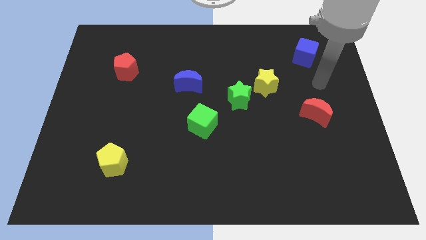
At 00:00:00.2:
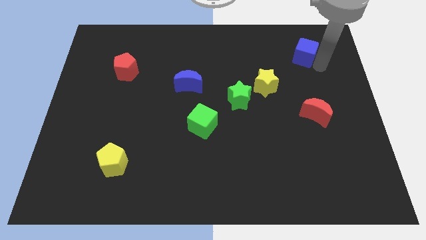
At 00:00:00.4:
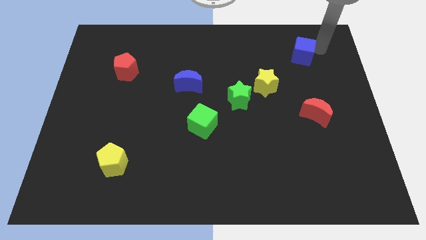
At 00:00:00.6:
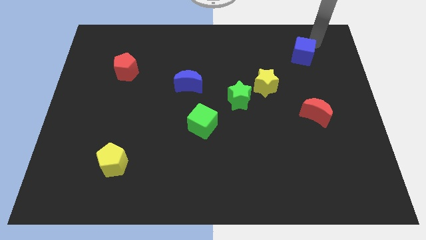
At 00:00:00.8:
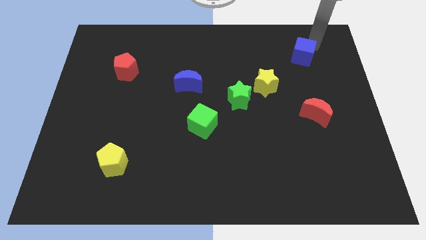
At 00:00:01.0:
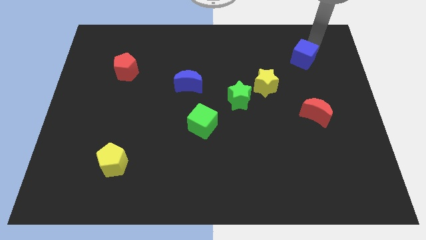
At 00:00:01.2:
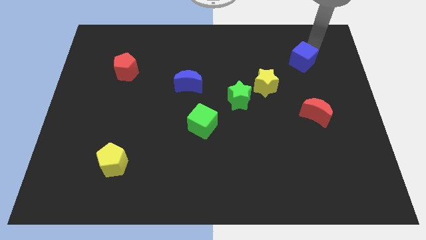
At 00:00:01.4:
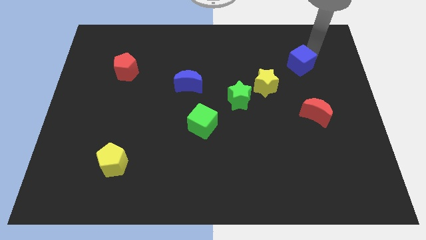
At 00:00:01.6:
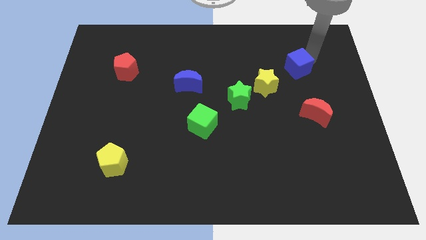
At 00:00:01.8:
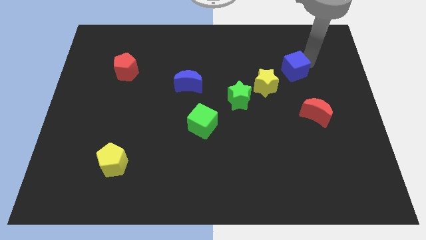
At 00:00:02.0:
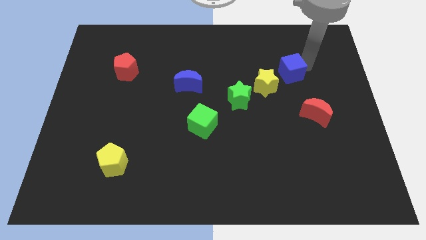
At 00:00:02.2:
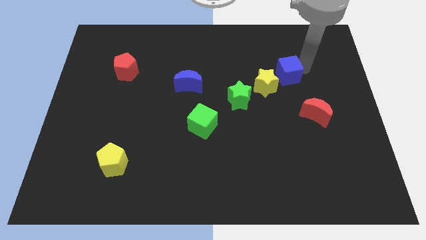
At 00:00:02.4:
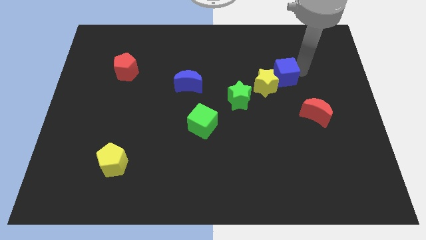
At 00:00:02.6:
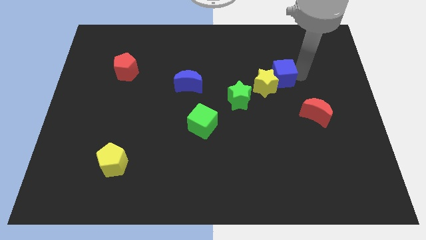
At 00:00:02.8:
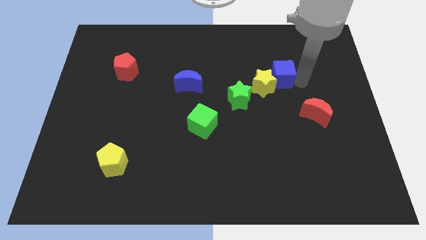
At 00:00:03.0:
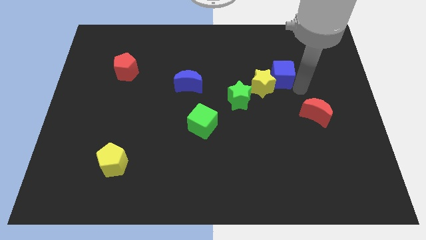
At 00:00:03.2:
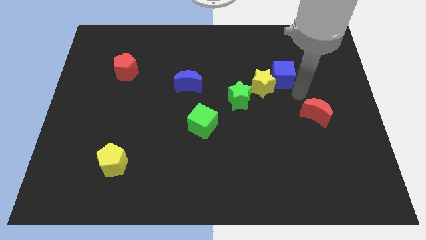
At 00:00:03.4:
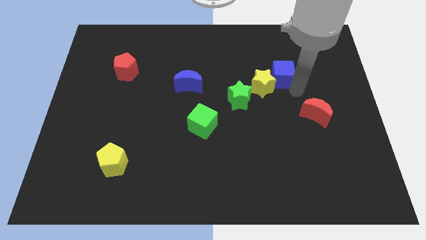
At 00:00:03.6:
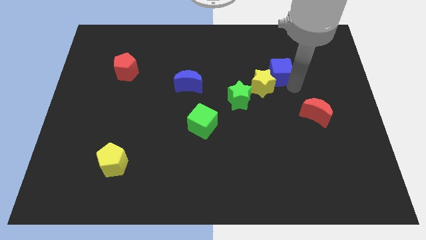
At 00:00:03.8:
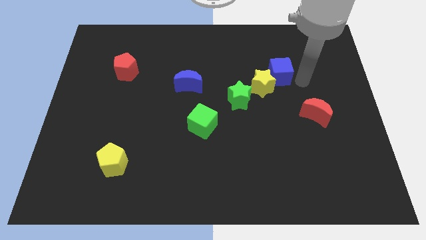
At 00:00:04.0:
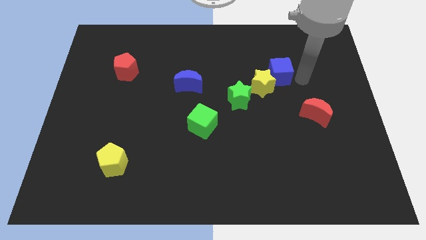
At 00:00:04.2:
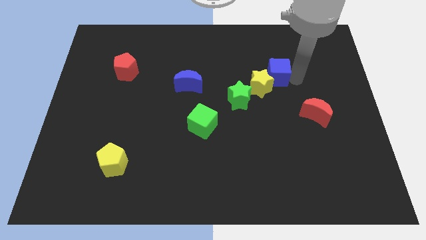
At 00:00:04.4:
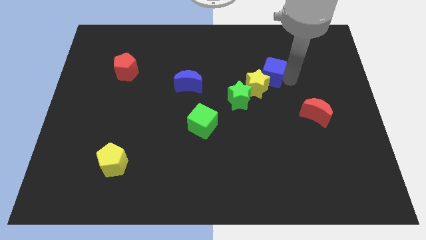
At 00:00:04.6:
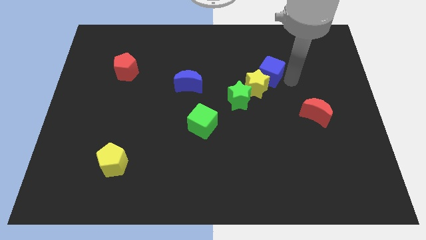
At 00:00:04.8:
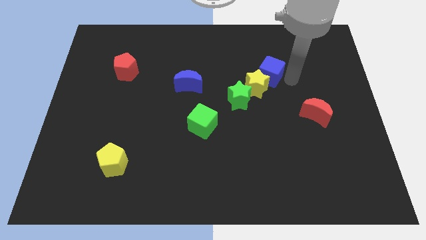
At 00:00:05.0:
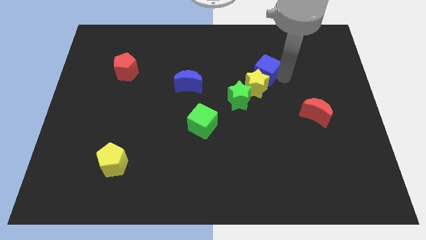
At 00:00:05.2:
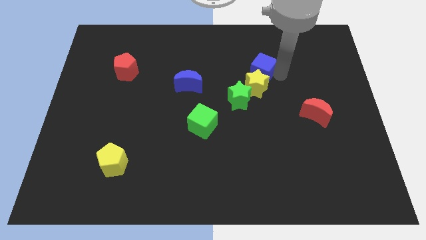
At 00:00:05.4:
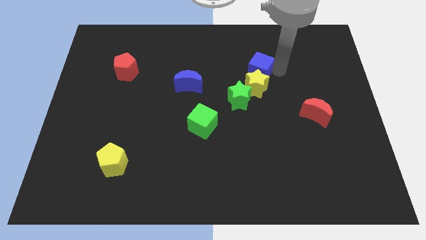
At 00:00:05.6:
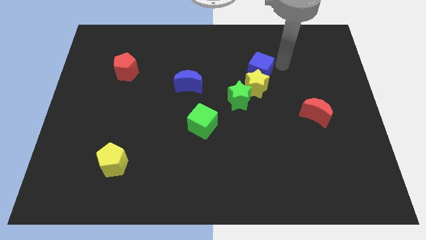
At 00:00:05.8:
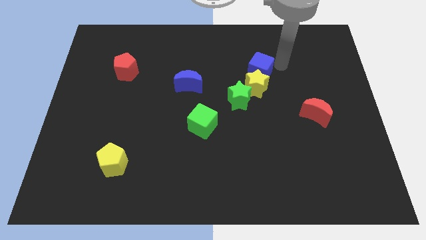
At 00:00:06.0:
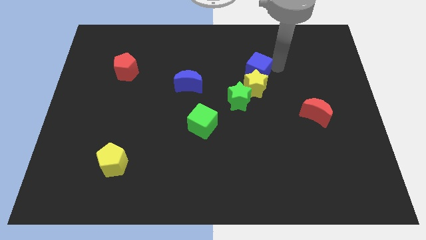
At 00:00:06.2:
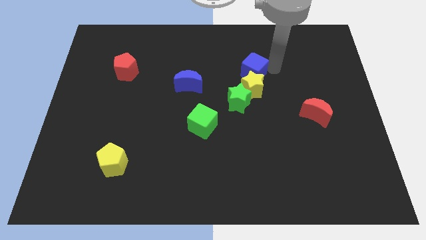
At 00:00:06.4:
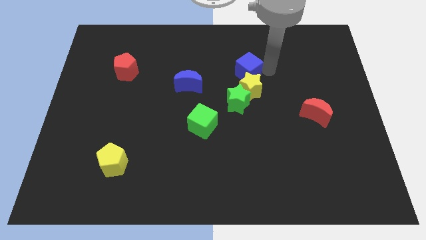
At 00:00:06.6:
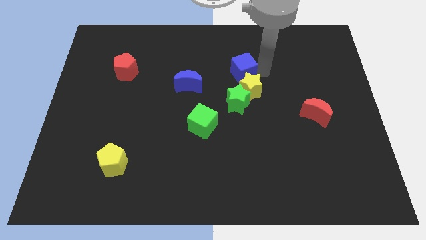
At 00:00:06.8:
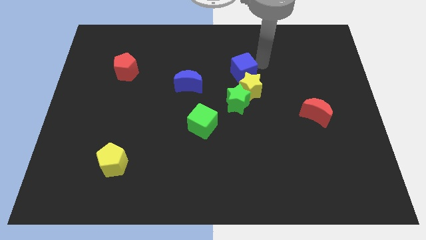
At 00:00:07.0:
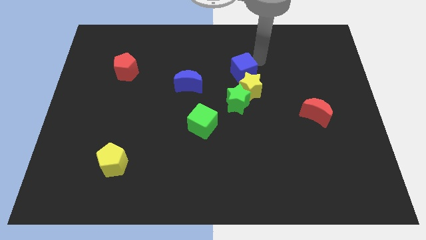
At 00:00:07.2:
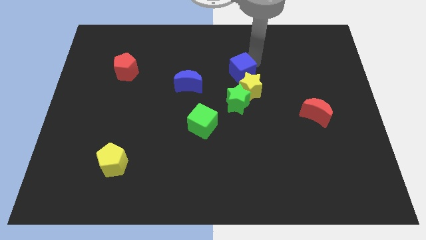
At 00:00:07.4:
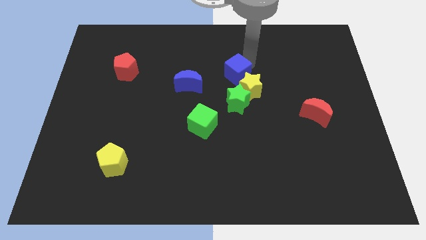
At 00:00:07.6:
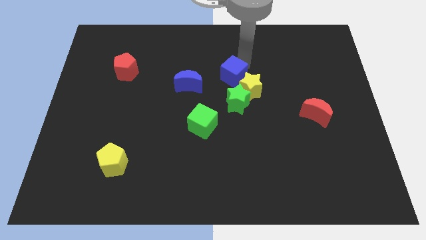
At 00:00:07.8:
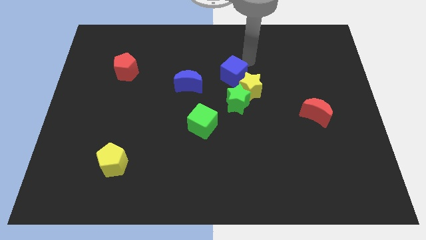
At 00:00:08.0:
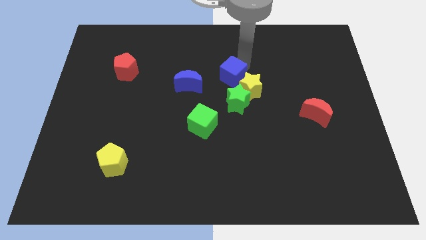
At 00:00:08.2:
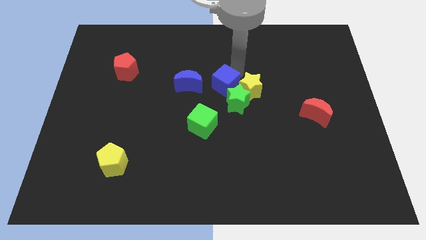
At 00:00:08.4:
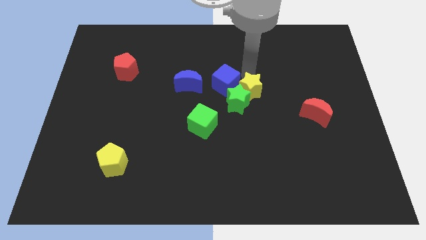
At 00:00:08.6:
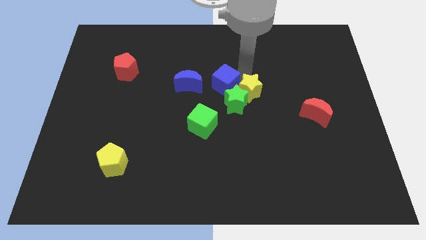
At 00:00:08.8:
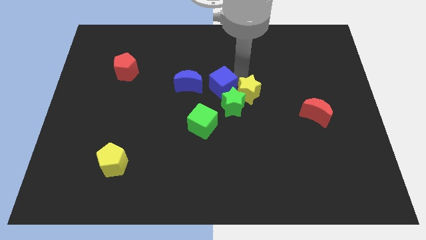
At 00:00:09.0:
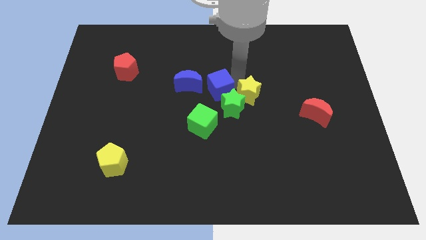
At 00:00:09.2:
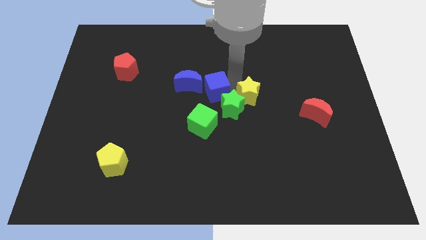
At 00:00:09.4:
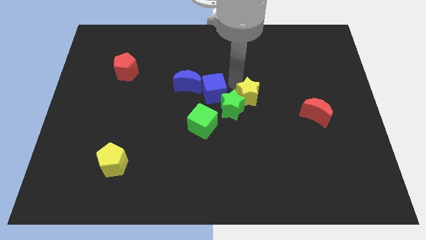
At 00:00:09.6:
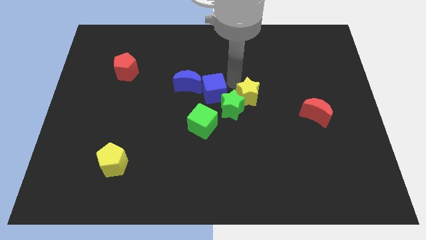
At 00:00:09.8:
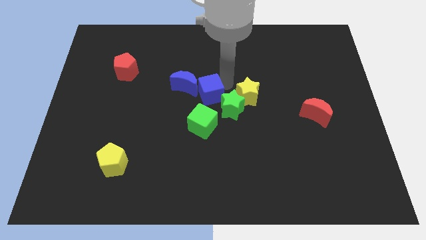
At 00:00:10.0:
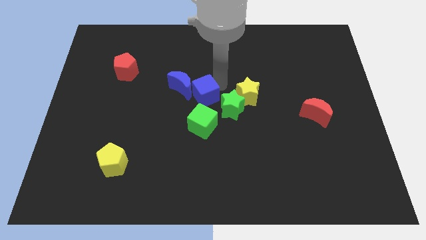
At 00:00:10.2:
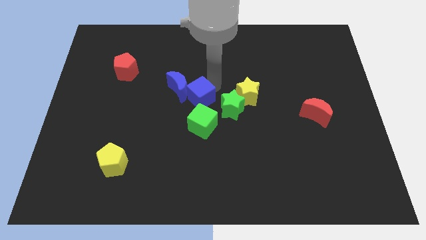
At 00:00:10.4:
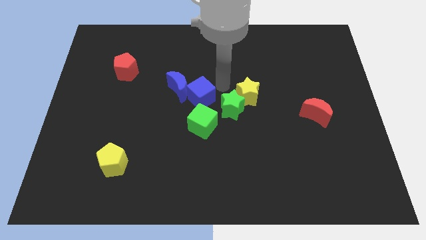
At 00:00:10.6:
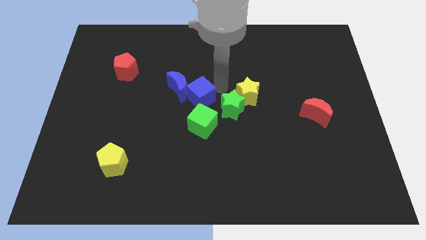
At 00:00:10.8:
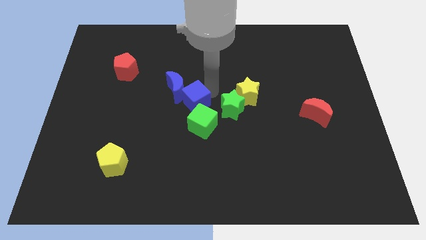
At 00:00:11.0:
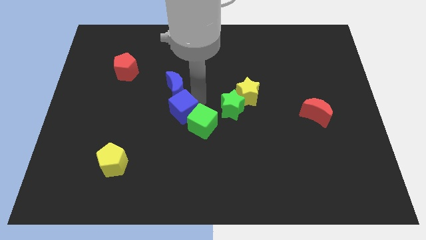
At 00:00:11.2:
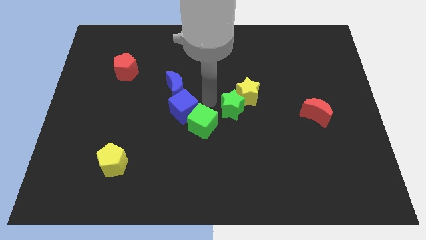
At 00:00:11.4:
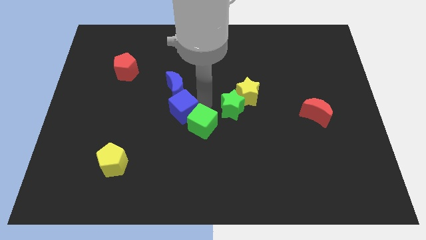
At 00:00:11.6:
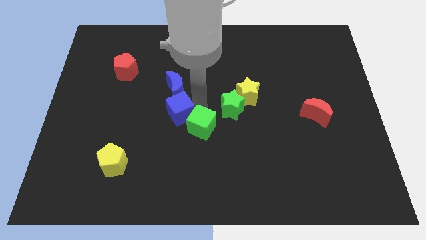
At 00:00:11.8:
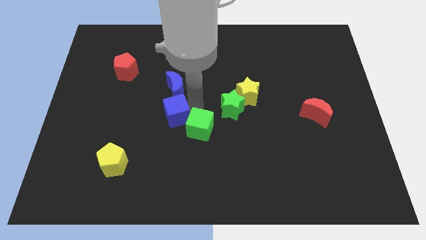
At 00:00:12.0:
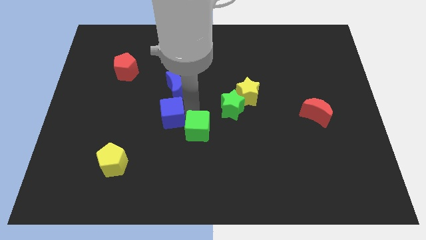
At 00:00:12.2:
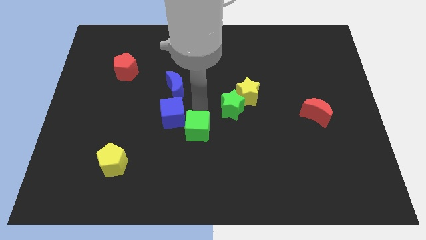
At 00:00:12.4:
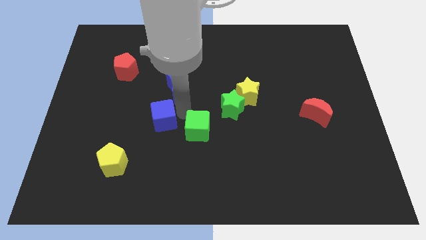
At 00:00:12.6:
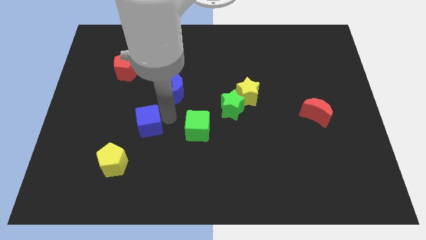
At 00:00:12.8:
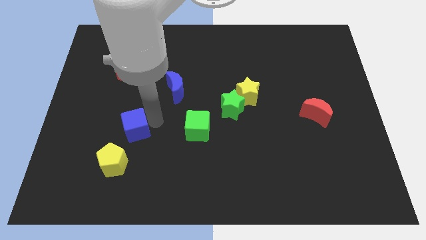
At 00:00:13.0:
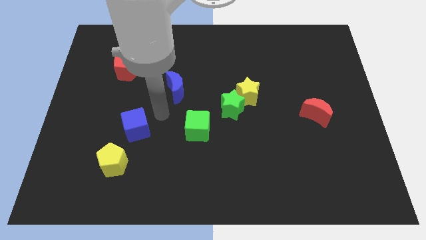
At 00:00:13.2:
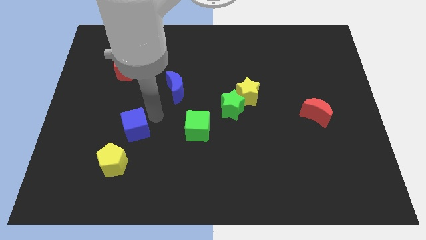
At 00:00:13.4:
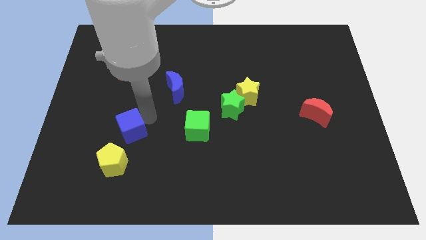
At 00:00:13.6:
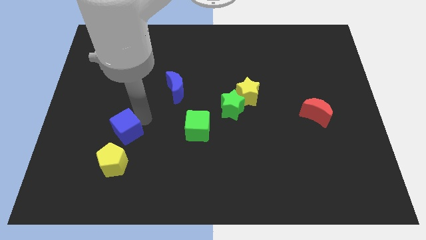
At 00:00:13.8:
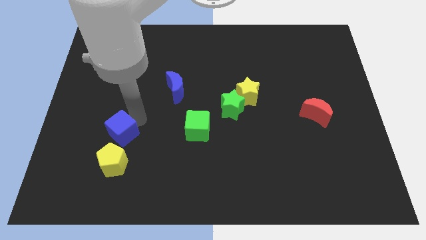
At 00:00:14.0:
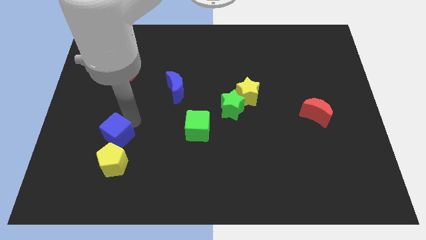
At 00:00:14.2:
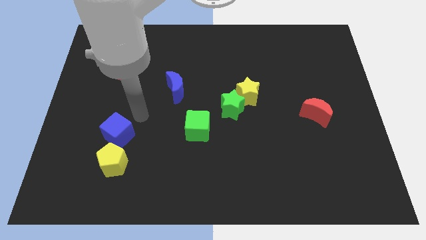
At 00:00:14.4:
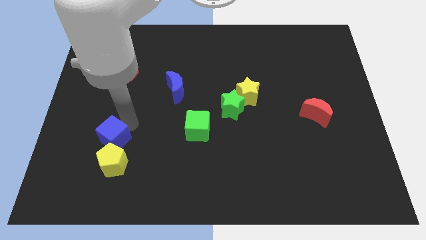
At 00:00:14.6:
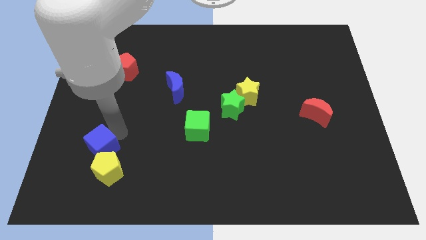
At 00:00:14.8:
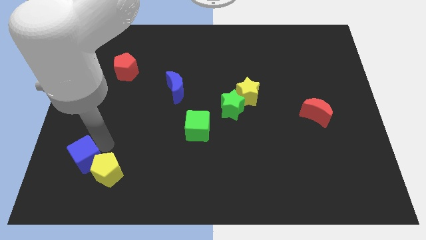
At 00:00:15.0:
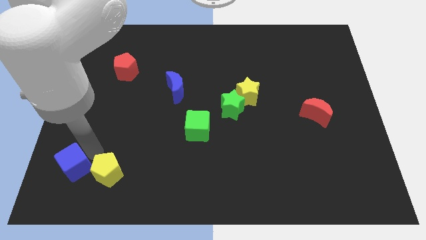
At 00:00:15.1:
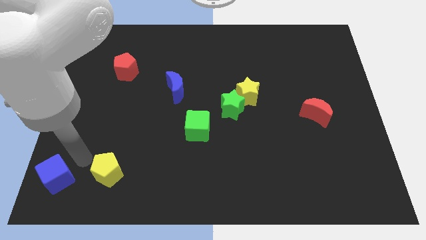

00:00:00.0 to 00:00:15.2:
push the blue cube to the bottom left of the board
